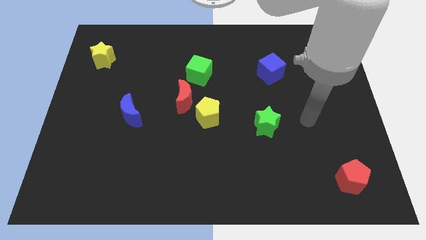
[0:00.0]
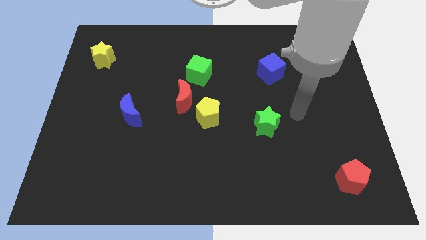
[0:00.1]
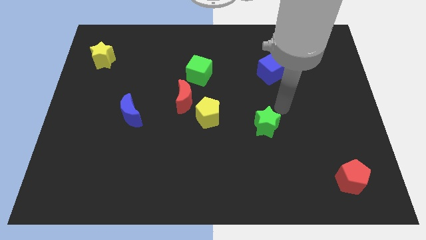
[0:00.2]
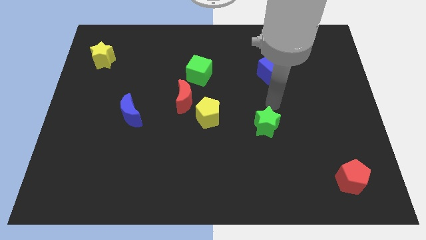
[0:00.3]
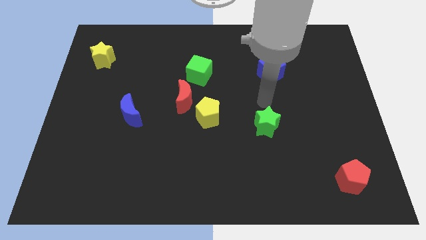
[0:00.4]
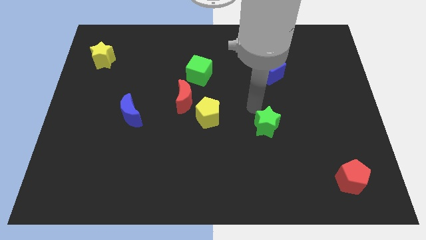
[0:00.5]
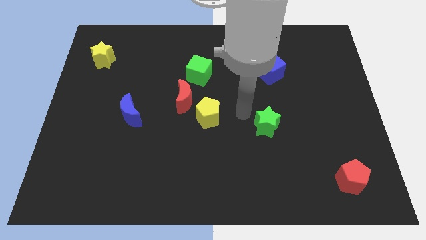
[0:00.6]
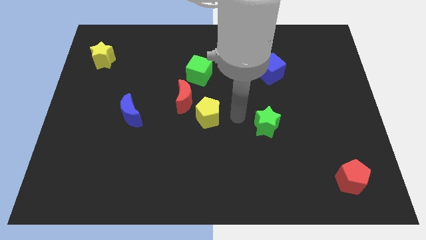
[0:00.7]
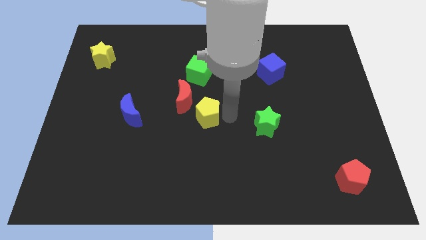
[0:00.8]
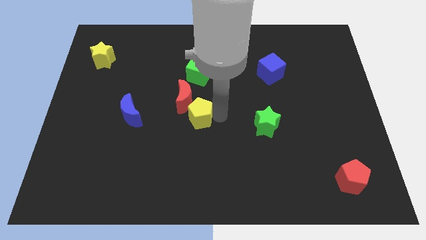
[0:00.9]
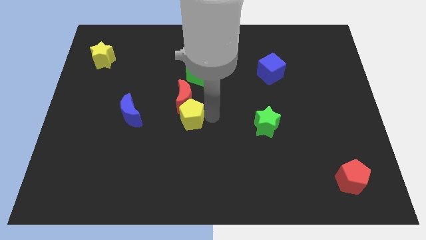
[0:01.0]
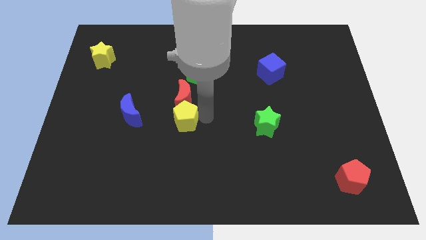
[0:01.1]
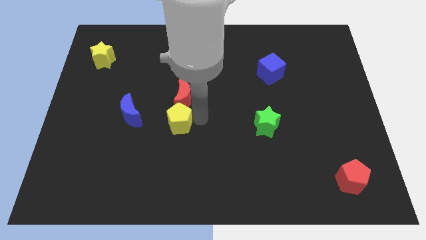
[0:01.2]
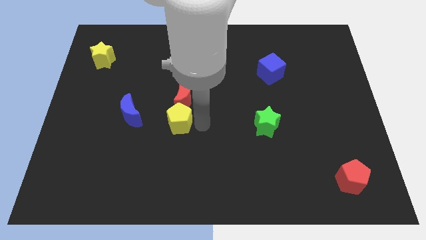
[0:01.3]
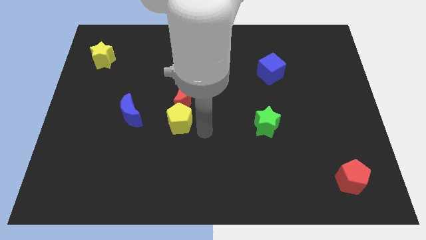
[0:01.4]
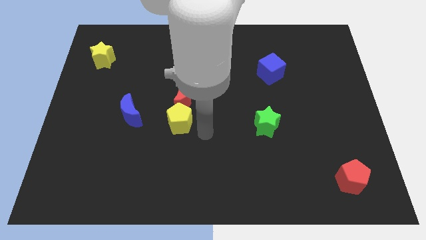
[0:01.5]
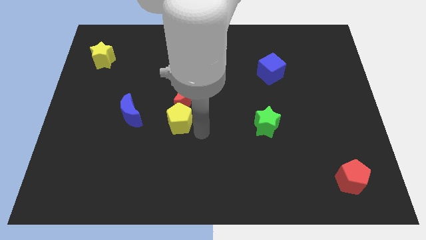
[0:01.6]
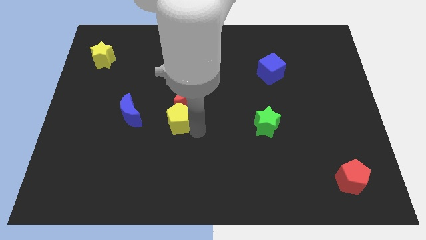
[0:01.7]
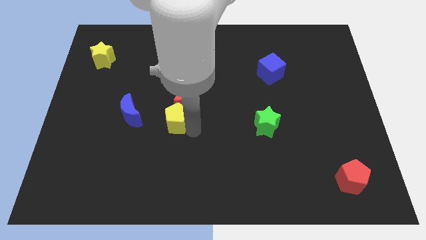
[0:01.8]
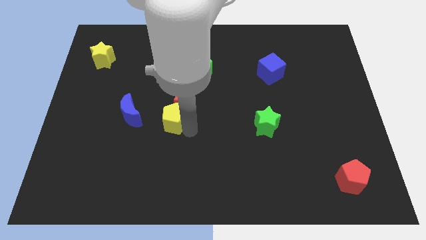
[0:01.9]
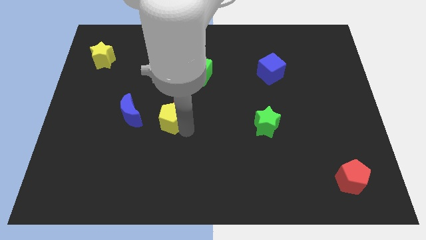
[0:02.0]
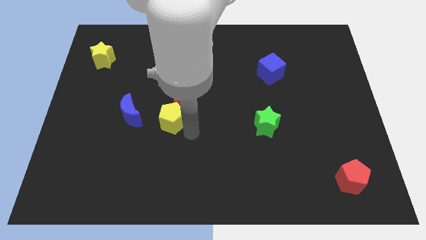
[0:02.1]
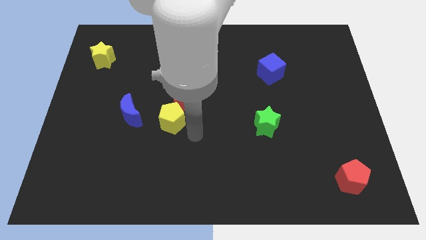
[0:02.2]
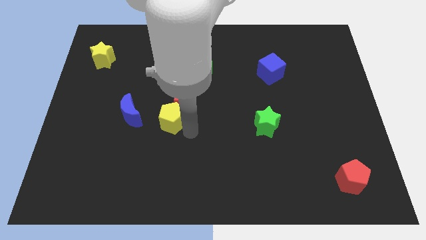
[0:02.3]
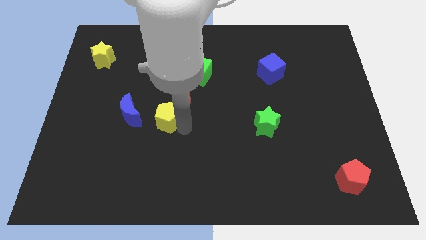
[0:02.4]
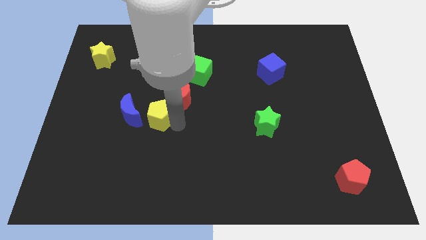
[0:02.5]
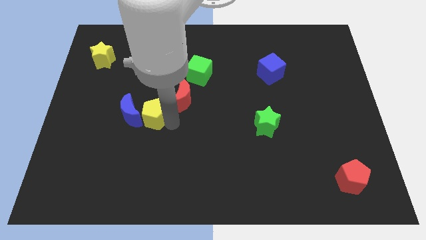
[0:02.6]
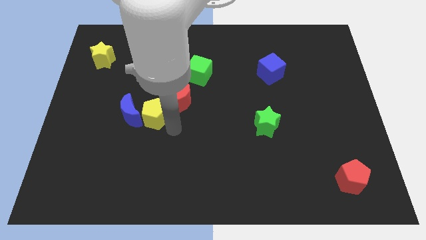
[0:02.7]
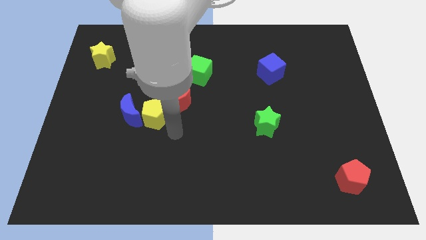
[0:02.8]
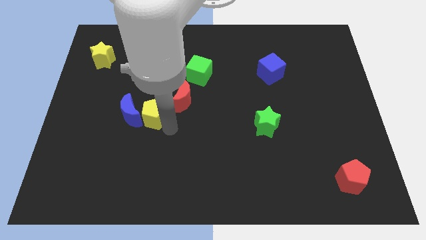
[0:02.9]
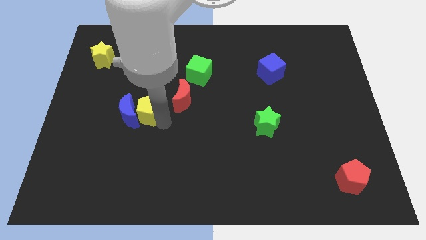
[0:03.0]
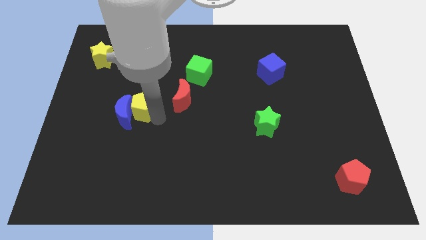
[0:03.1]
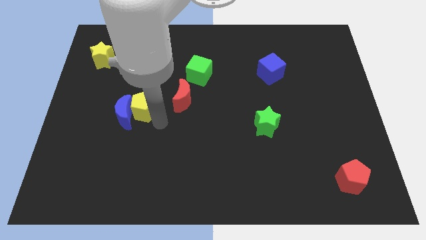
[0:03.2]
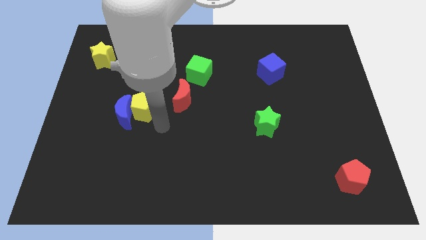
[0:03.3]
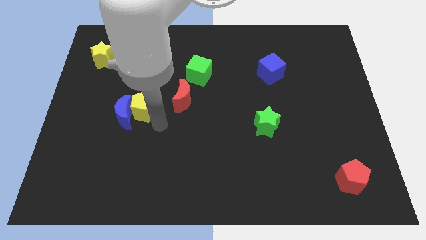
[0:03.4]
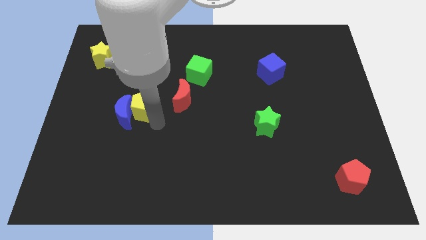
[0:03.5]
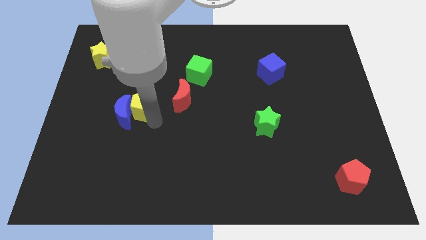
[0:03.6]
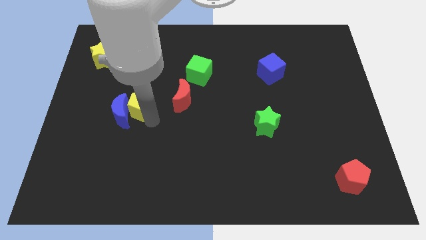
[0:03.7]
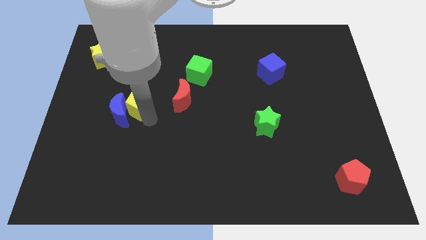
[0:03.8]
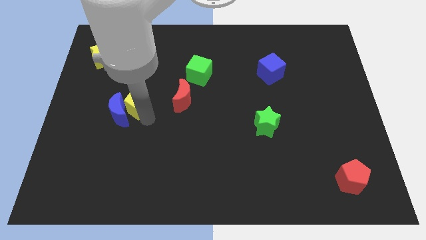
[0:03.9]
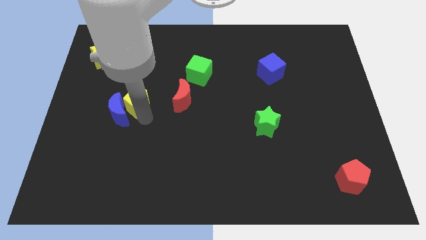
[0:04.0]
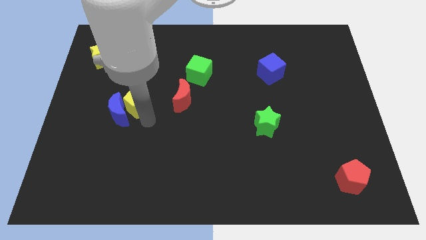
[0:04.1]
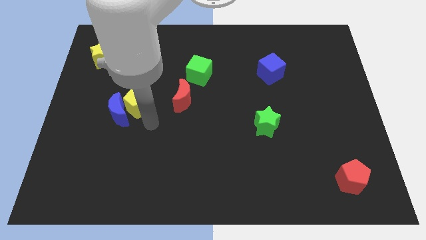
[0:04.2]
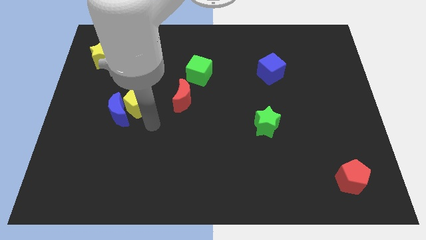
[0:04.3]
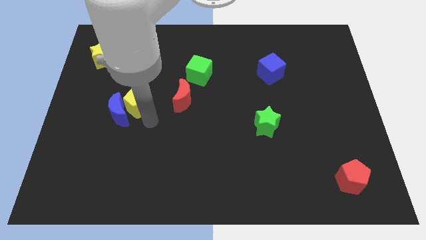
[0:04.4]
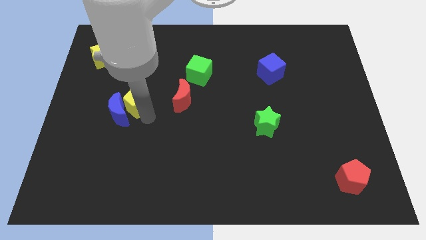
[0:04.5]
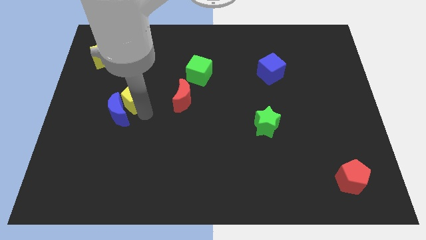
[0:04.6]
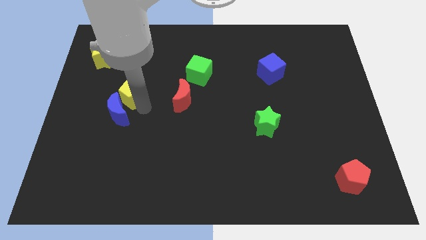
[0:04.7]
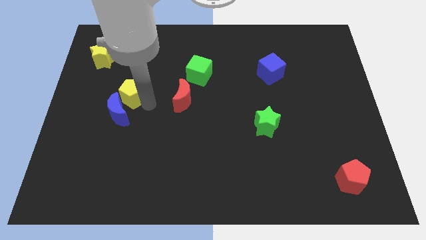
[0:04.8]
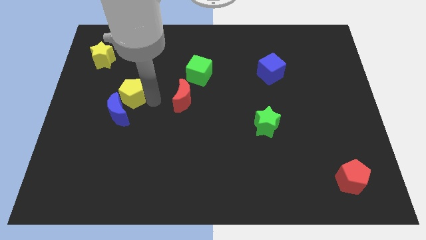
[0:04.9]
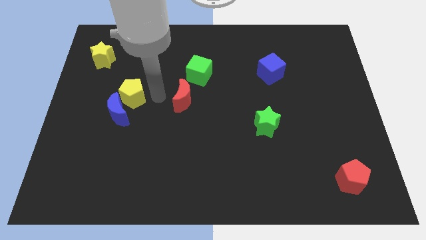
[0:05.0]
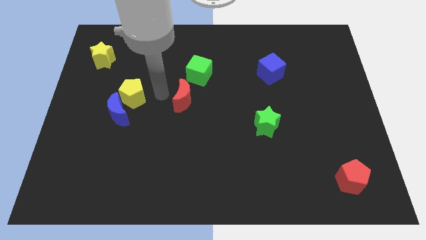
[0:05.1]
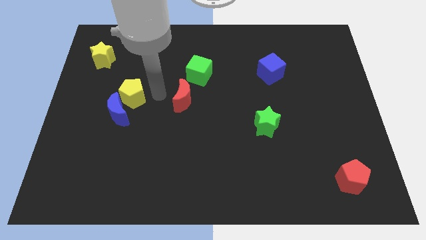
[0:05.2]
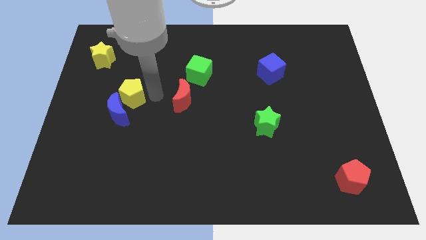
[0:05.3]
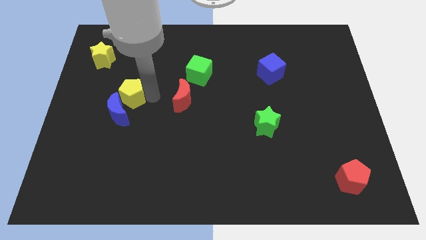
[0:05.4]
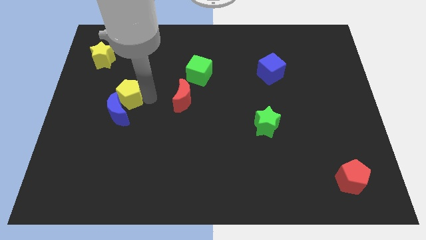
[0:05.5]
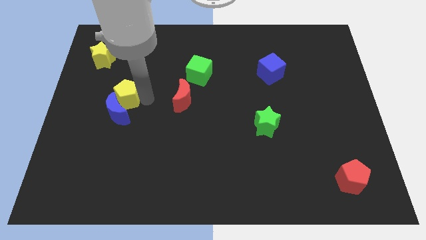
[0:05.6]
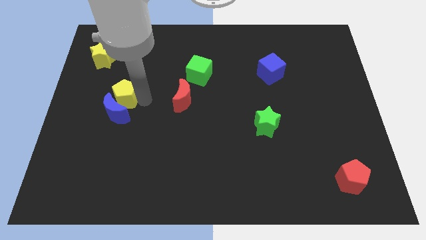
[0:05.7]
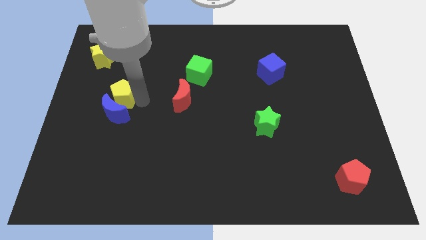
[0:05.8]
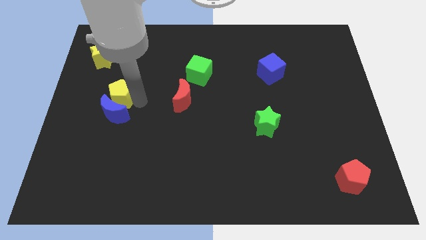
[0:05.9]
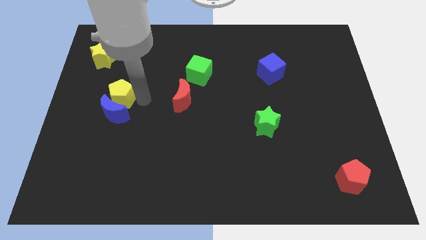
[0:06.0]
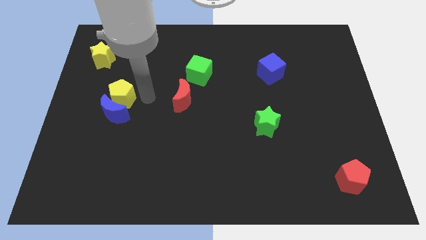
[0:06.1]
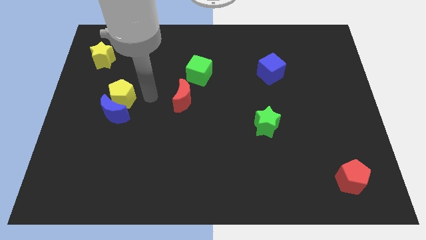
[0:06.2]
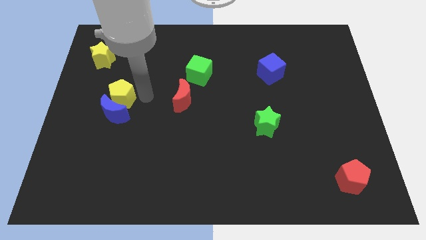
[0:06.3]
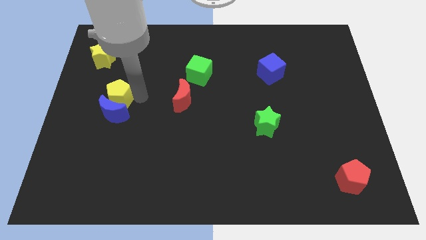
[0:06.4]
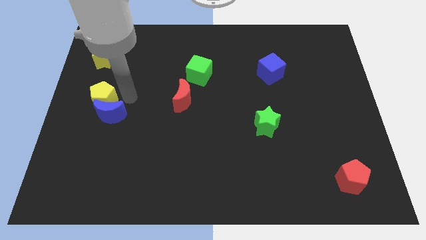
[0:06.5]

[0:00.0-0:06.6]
move the yellow pentagon to the left side
